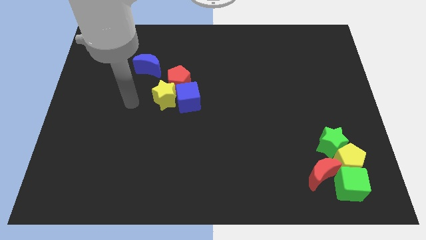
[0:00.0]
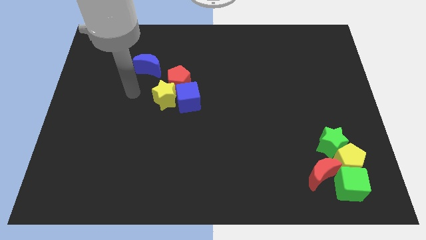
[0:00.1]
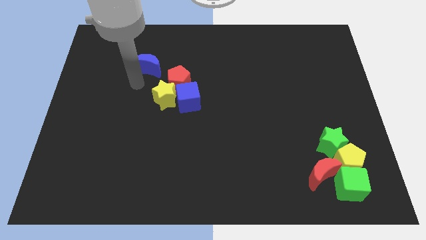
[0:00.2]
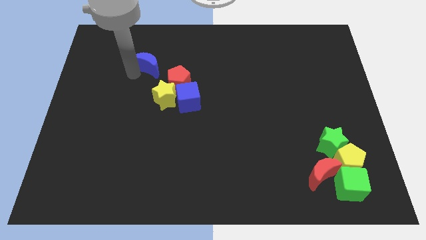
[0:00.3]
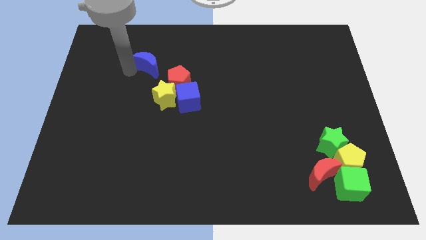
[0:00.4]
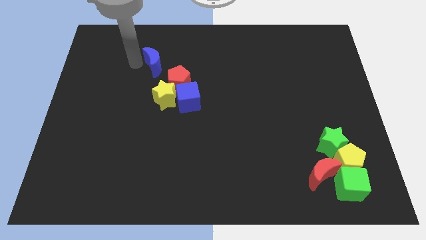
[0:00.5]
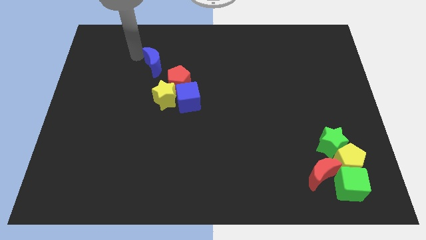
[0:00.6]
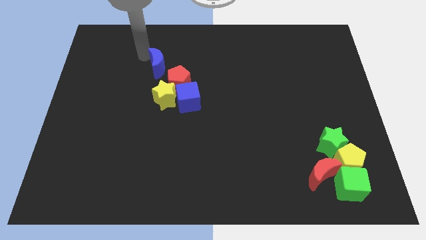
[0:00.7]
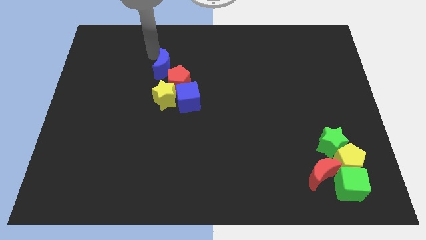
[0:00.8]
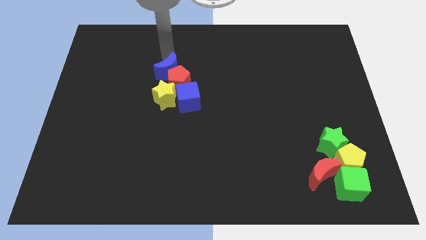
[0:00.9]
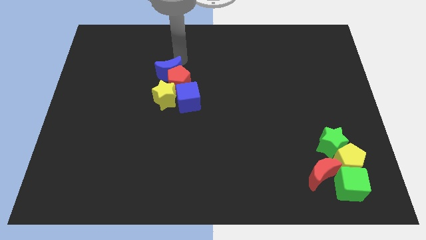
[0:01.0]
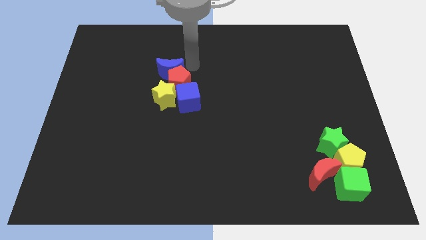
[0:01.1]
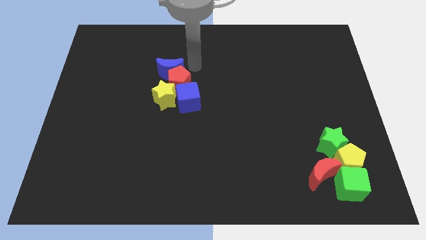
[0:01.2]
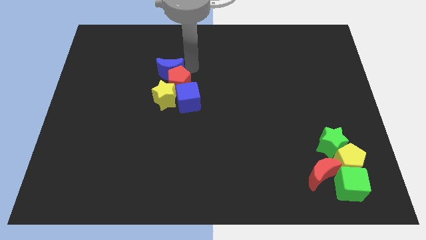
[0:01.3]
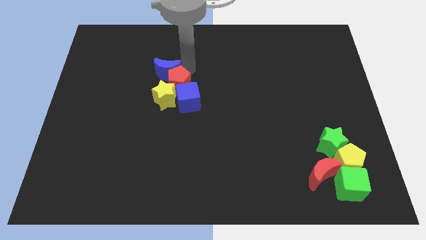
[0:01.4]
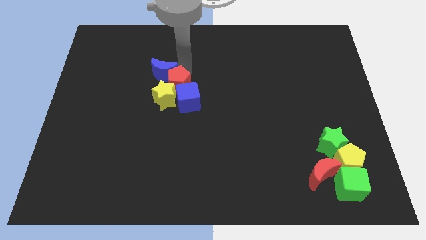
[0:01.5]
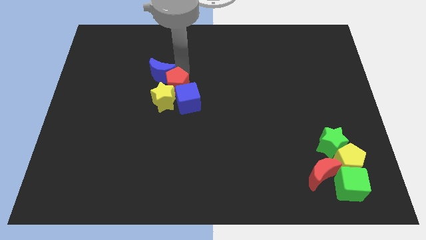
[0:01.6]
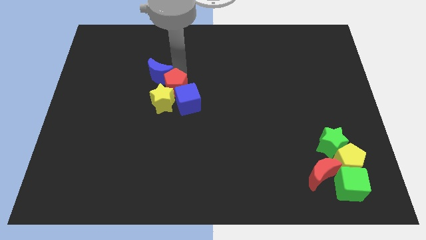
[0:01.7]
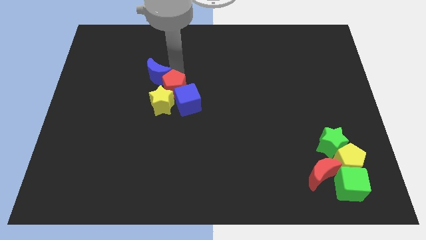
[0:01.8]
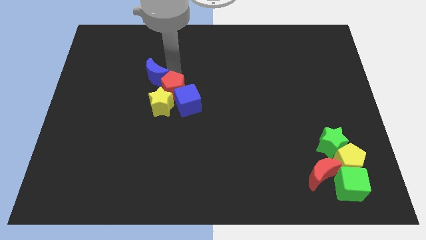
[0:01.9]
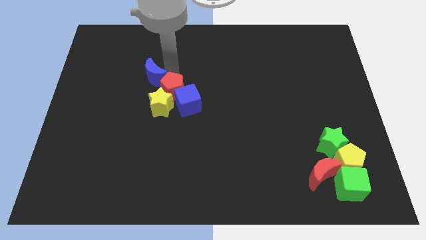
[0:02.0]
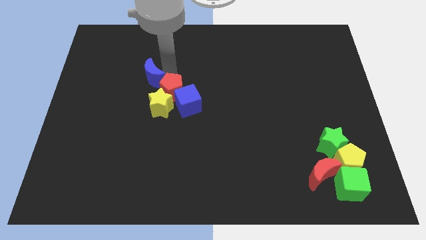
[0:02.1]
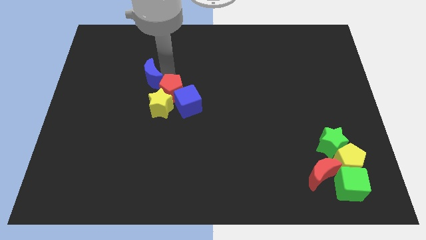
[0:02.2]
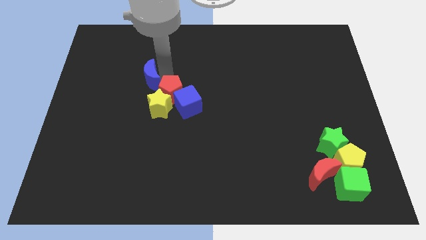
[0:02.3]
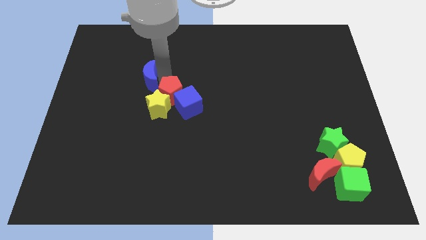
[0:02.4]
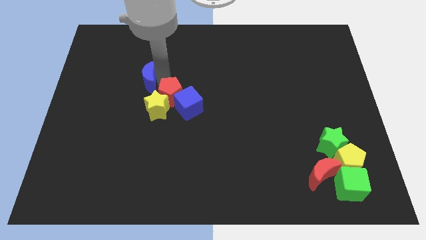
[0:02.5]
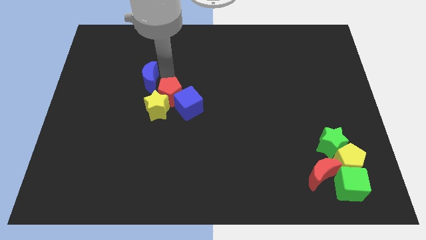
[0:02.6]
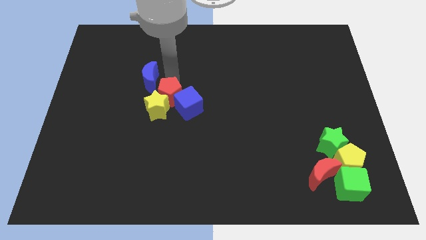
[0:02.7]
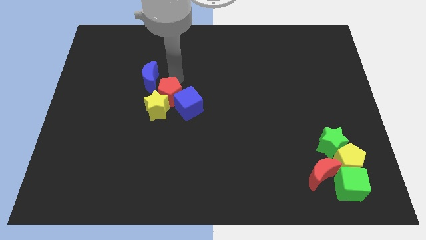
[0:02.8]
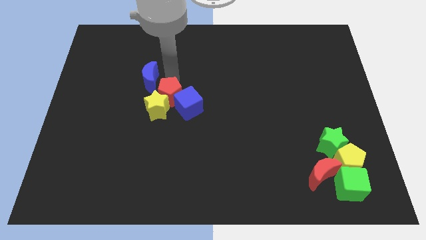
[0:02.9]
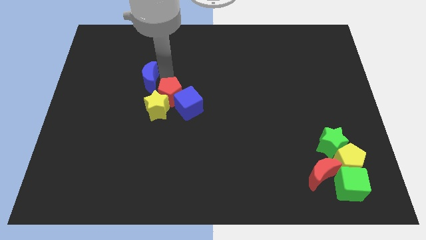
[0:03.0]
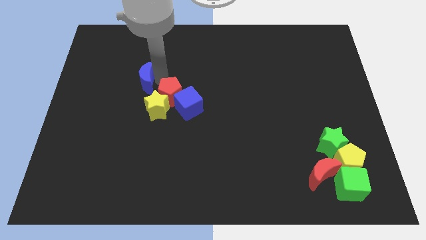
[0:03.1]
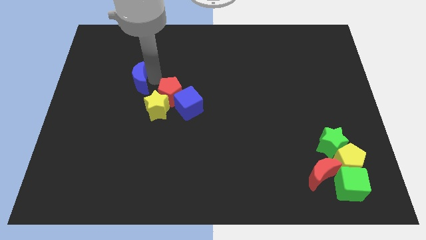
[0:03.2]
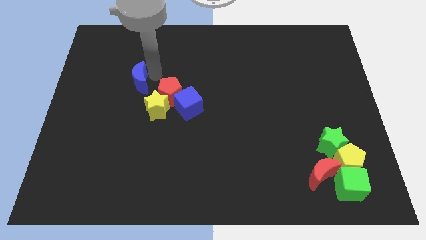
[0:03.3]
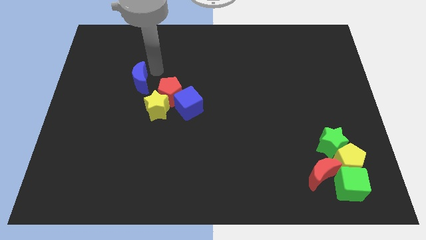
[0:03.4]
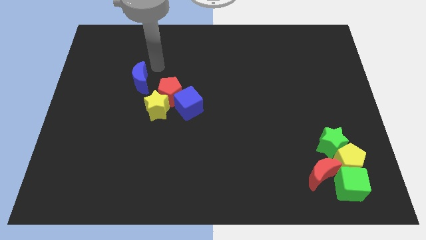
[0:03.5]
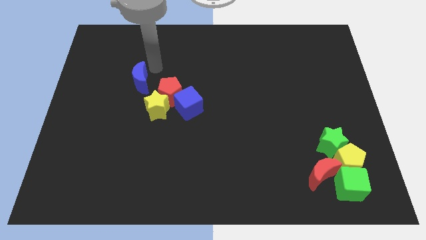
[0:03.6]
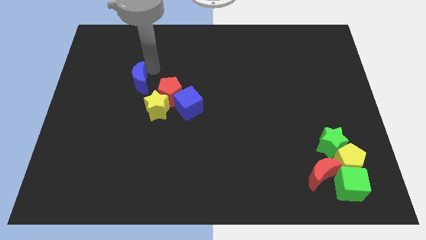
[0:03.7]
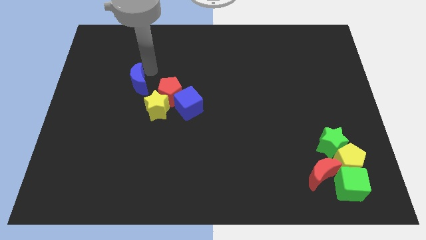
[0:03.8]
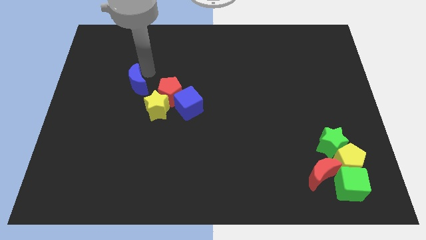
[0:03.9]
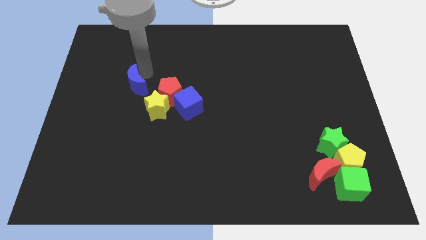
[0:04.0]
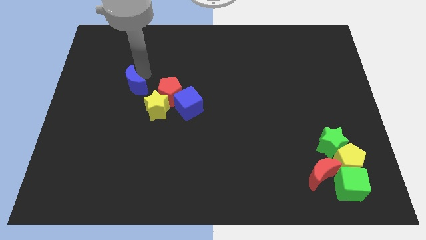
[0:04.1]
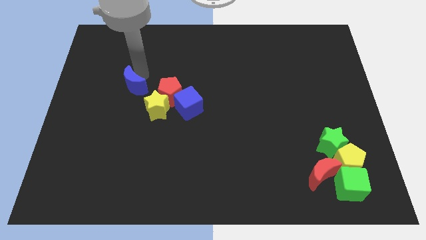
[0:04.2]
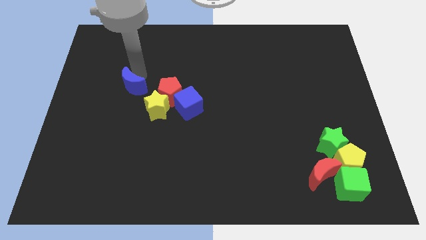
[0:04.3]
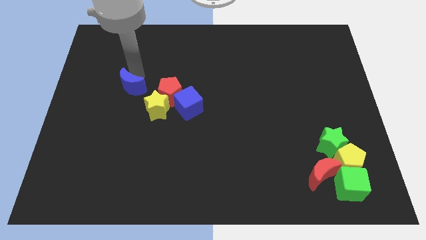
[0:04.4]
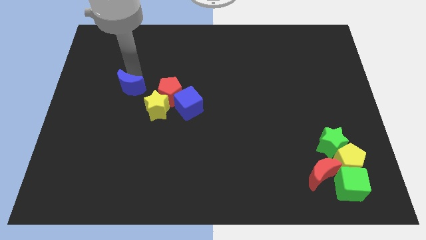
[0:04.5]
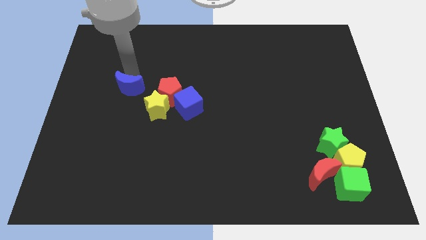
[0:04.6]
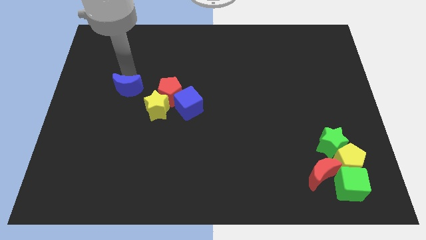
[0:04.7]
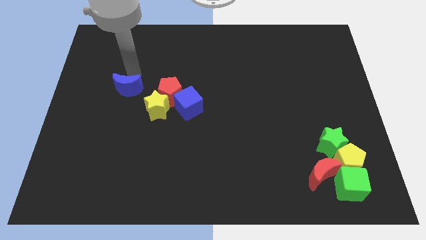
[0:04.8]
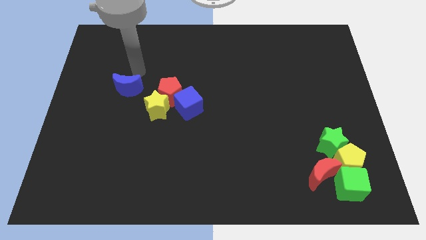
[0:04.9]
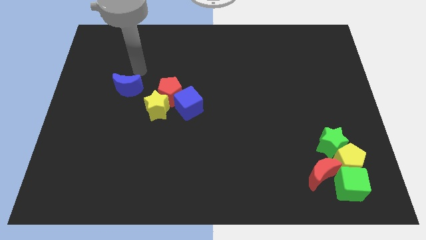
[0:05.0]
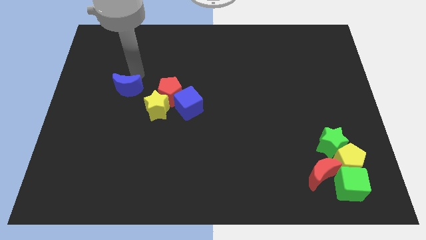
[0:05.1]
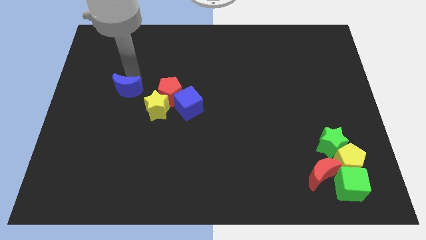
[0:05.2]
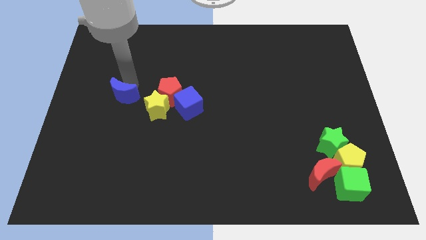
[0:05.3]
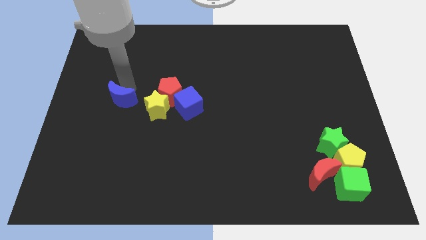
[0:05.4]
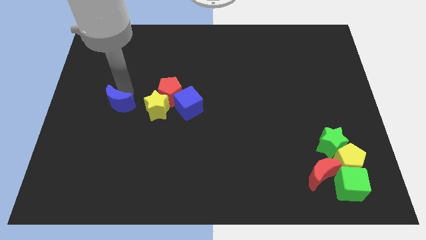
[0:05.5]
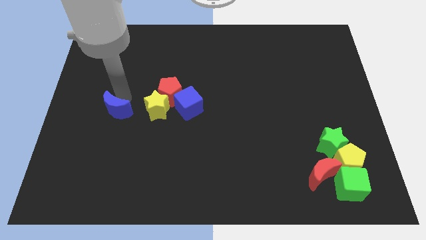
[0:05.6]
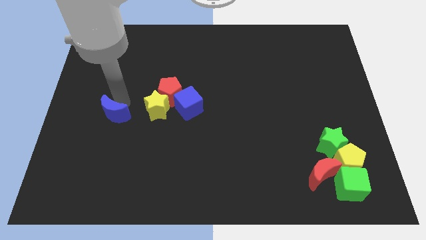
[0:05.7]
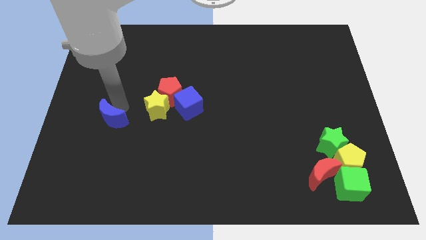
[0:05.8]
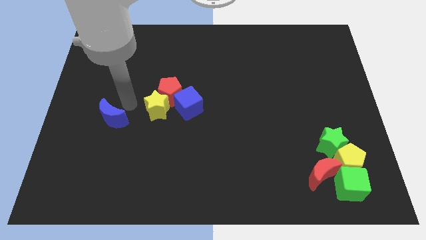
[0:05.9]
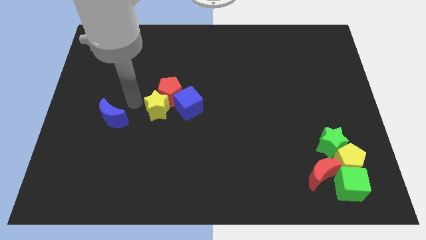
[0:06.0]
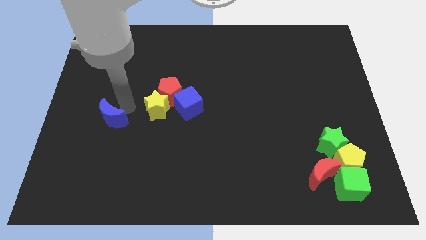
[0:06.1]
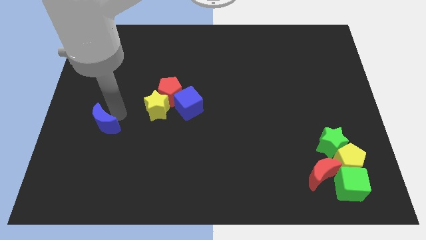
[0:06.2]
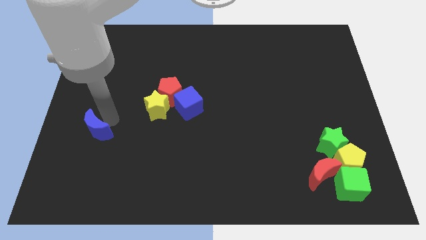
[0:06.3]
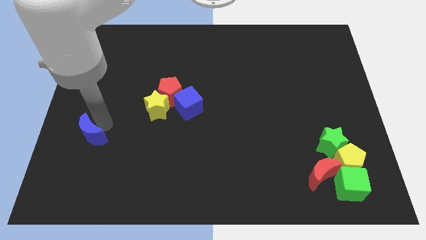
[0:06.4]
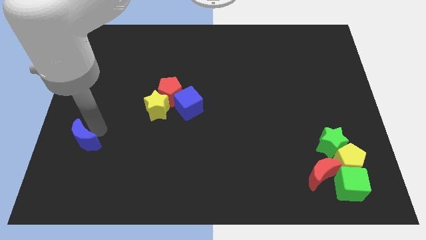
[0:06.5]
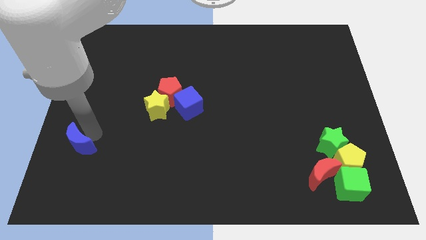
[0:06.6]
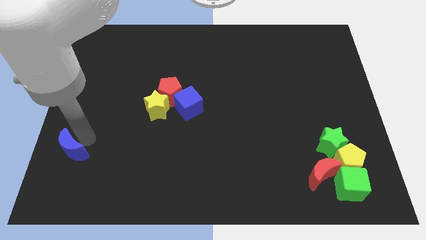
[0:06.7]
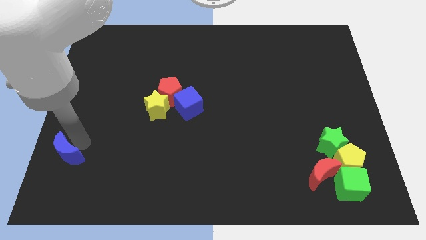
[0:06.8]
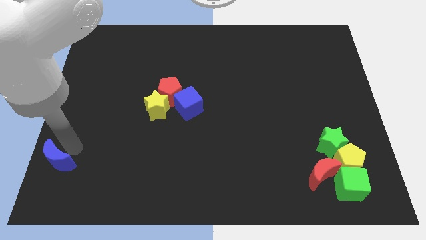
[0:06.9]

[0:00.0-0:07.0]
slide the blue moon to the bottom left of the board
